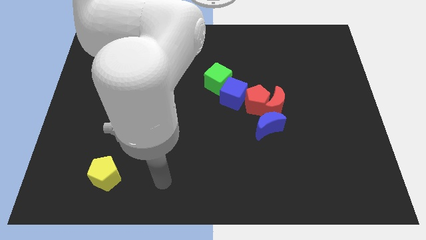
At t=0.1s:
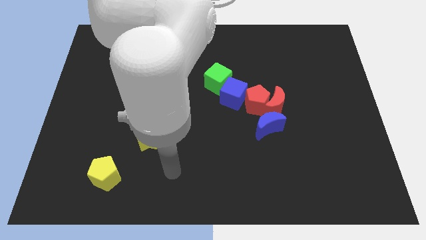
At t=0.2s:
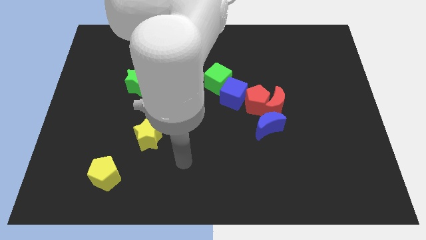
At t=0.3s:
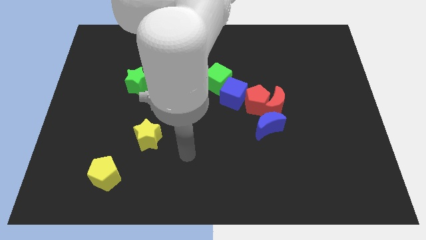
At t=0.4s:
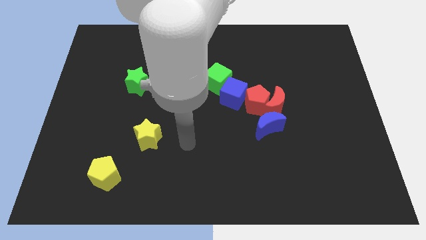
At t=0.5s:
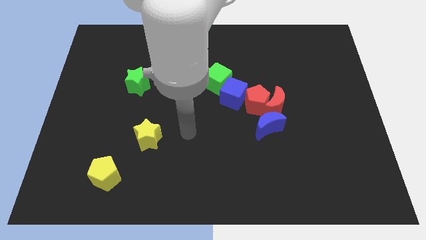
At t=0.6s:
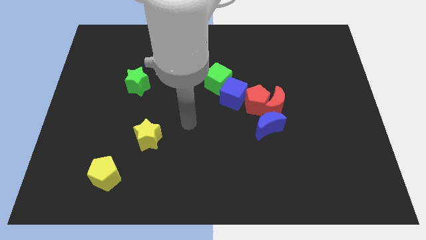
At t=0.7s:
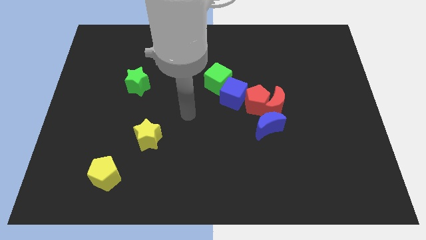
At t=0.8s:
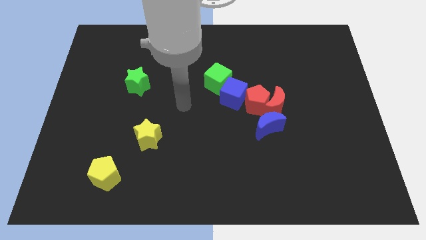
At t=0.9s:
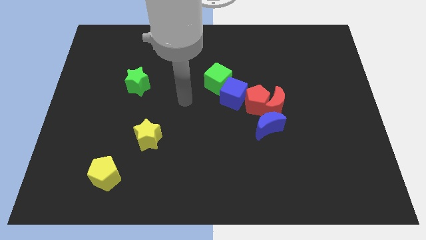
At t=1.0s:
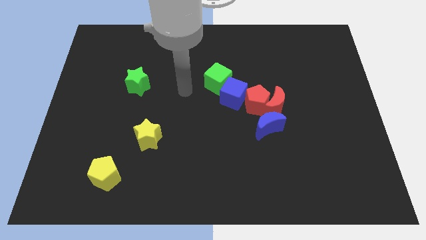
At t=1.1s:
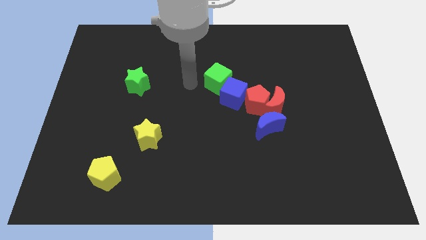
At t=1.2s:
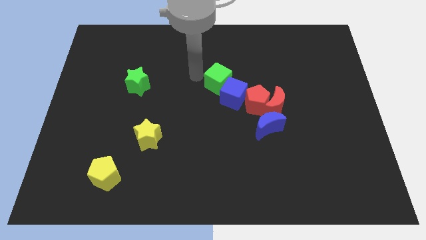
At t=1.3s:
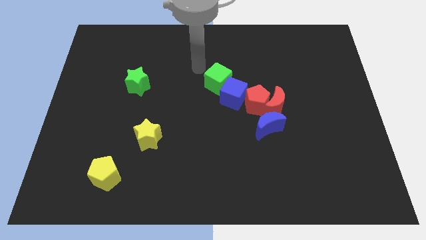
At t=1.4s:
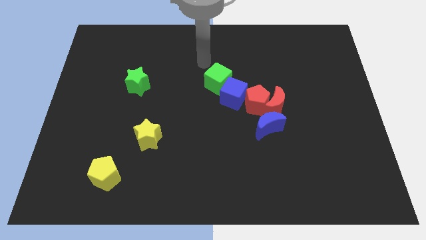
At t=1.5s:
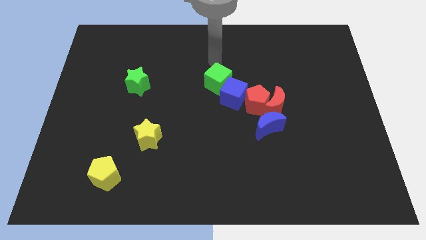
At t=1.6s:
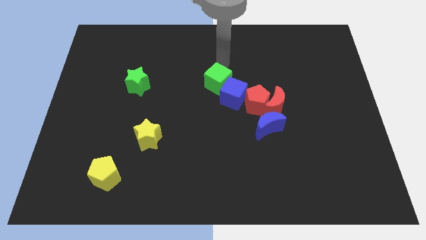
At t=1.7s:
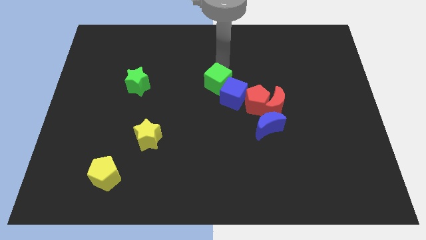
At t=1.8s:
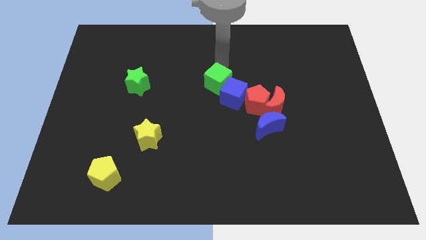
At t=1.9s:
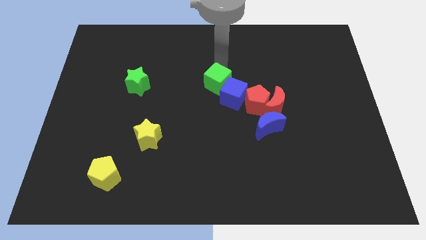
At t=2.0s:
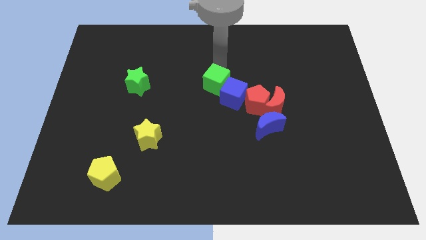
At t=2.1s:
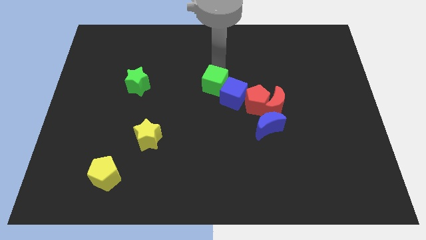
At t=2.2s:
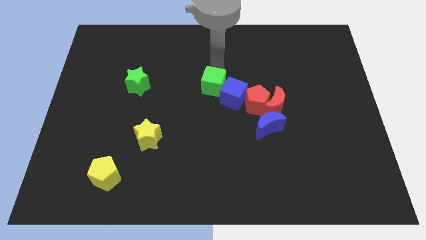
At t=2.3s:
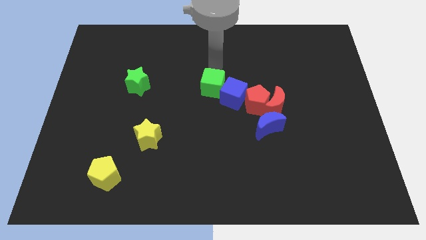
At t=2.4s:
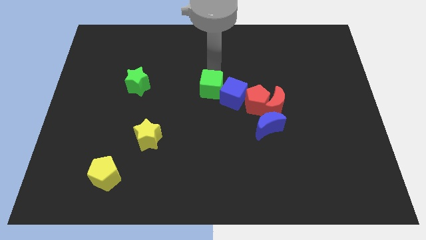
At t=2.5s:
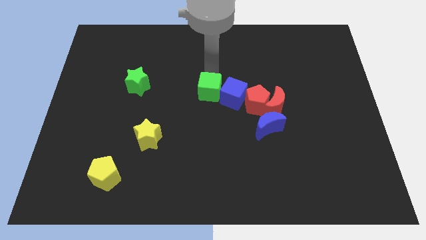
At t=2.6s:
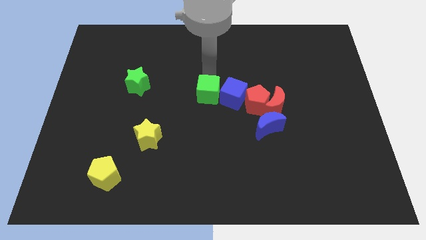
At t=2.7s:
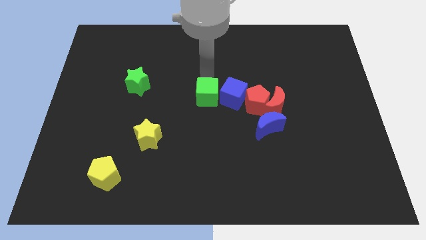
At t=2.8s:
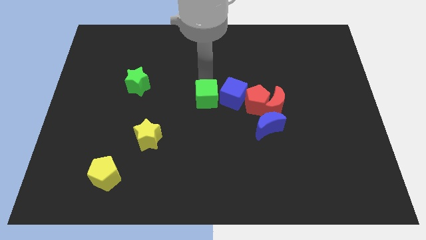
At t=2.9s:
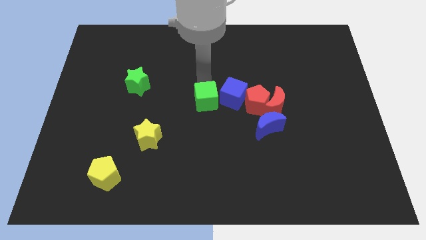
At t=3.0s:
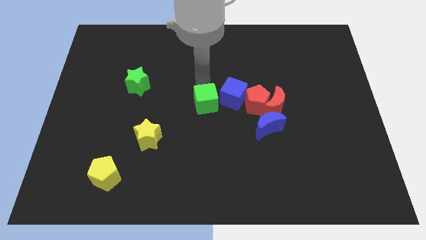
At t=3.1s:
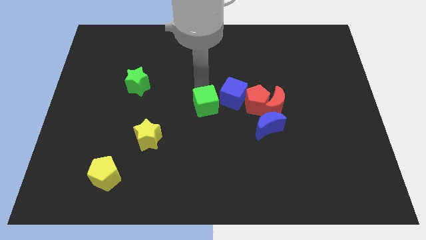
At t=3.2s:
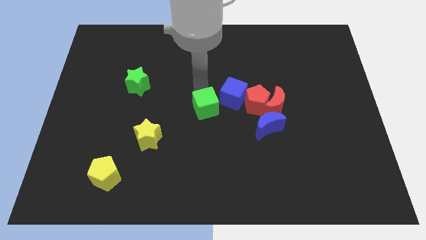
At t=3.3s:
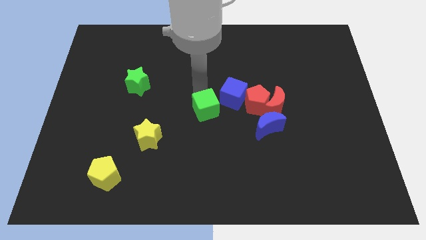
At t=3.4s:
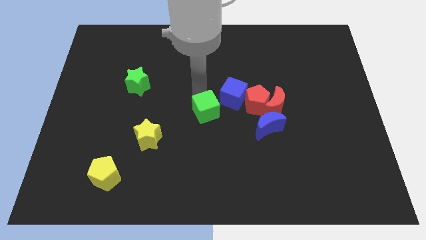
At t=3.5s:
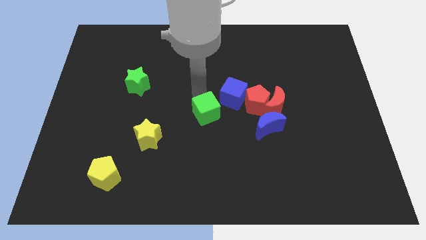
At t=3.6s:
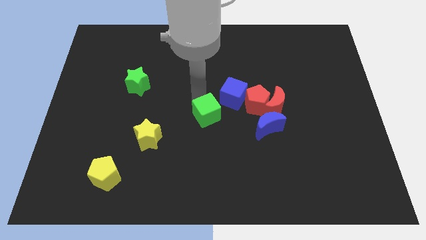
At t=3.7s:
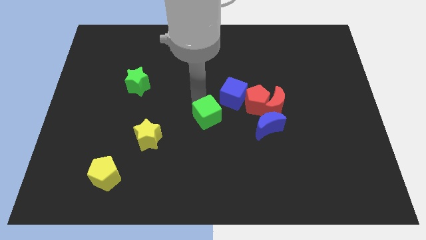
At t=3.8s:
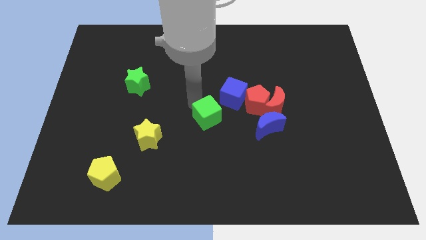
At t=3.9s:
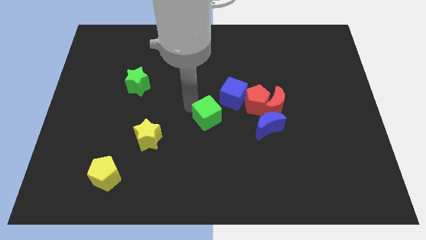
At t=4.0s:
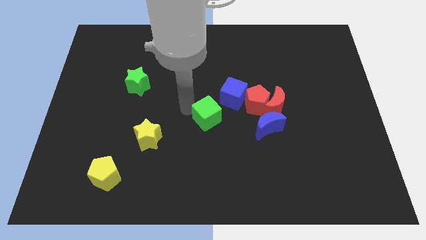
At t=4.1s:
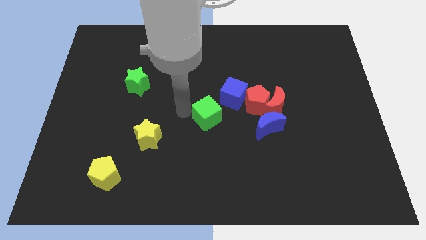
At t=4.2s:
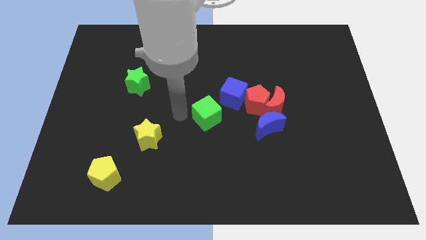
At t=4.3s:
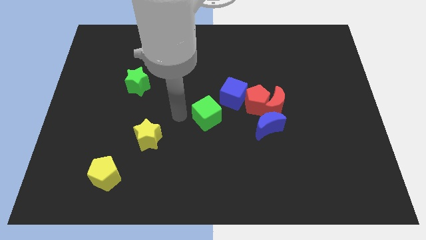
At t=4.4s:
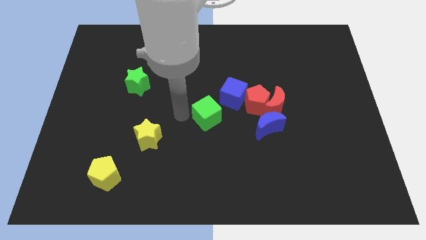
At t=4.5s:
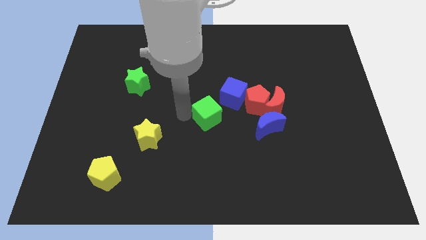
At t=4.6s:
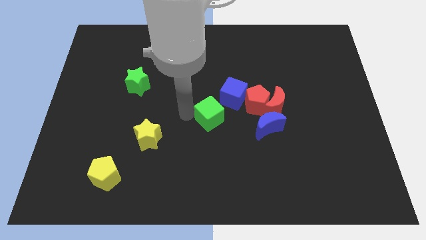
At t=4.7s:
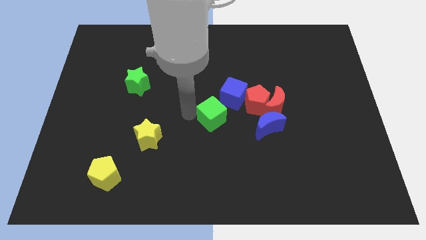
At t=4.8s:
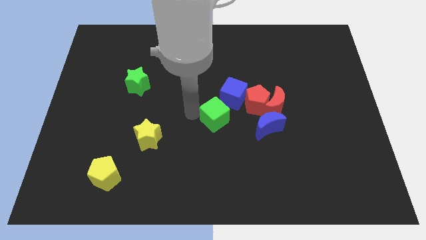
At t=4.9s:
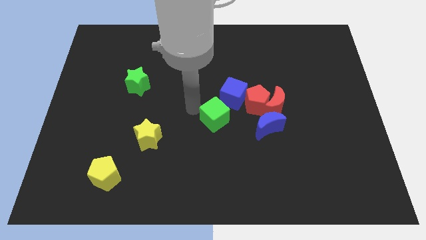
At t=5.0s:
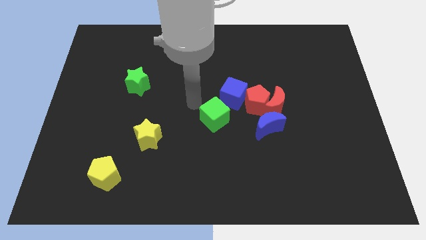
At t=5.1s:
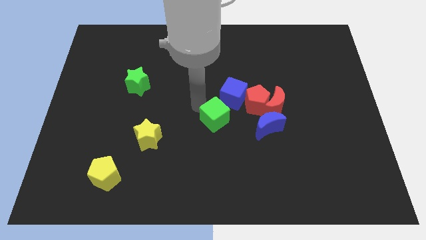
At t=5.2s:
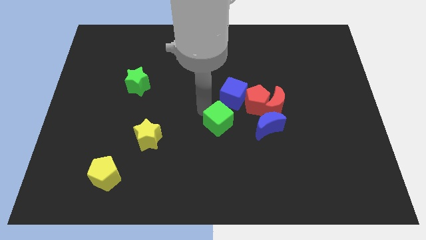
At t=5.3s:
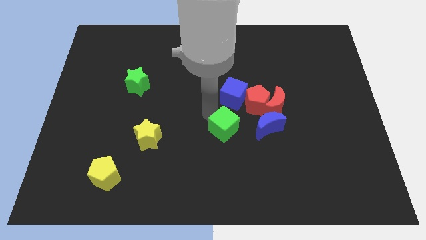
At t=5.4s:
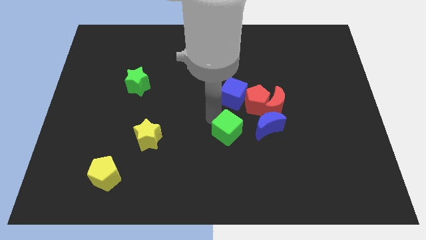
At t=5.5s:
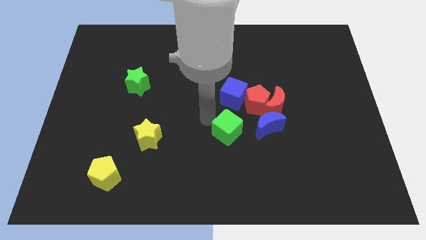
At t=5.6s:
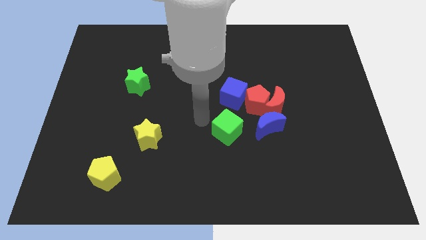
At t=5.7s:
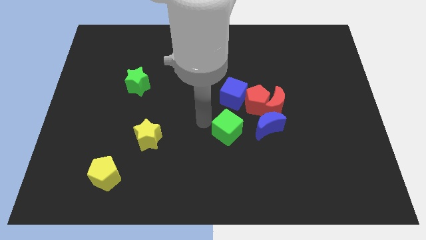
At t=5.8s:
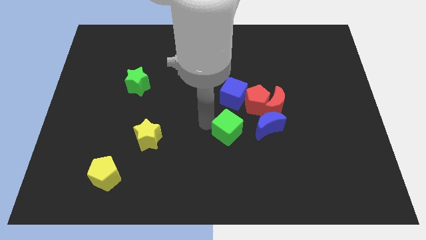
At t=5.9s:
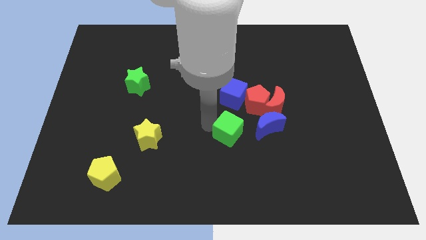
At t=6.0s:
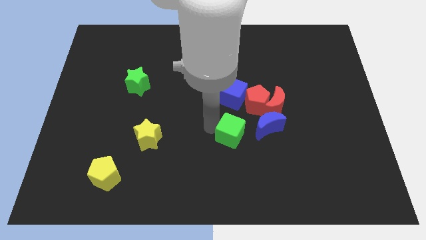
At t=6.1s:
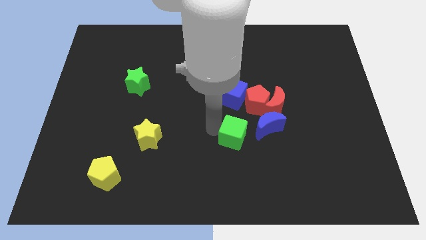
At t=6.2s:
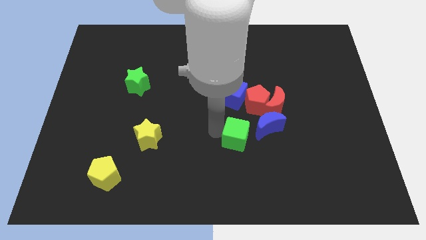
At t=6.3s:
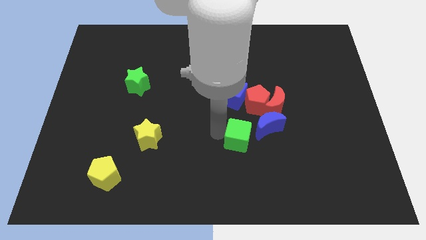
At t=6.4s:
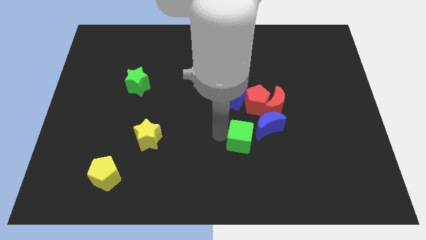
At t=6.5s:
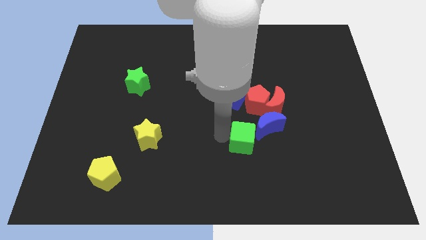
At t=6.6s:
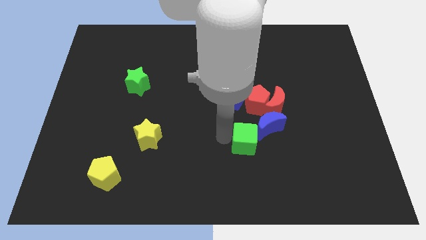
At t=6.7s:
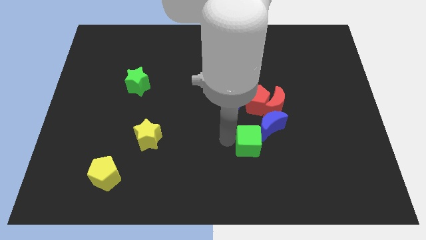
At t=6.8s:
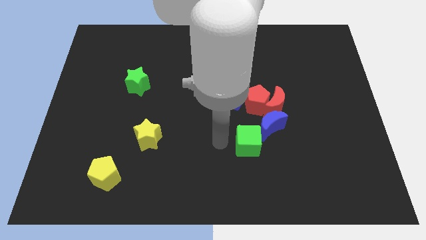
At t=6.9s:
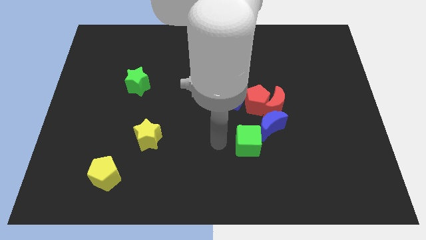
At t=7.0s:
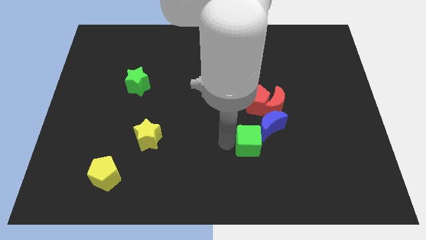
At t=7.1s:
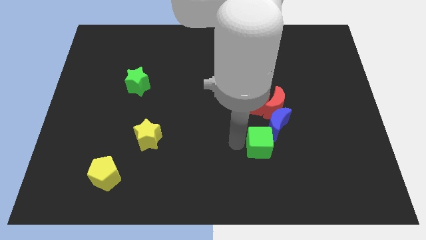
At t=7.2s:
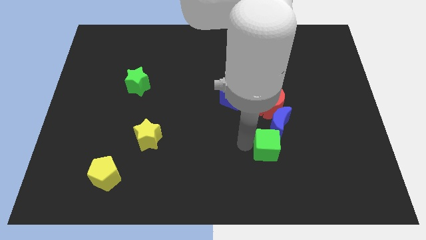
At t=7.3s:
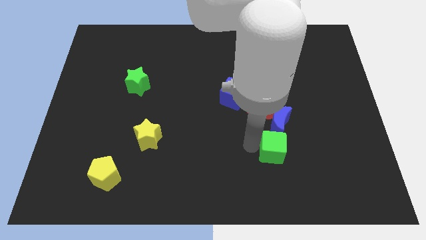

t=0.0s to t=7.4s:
slide the green cube downwards and right diagonally

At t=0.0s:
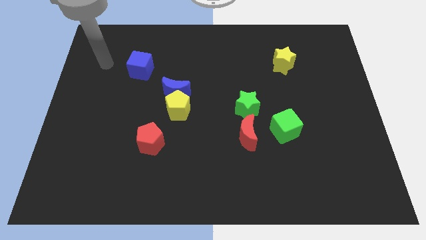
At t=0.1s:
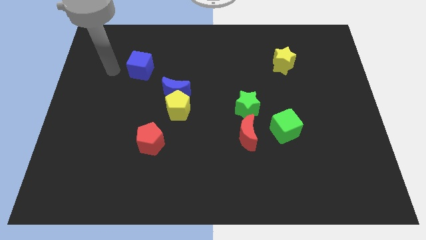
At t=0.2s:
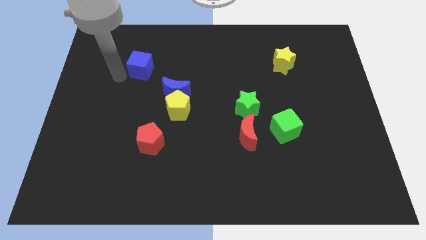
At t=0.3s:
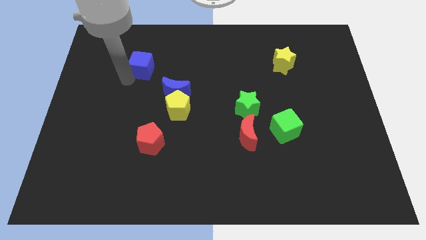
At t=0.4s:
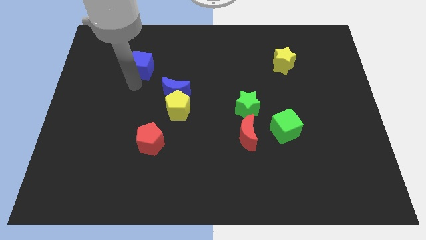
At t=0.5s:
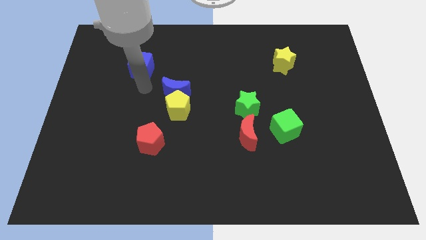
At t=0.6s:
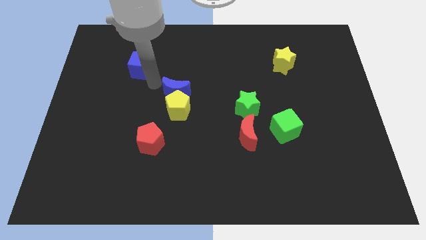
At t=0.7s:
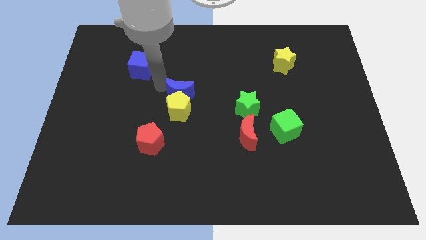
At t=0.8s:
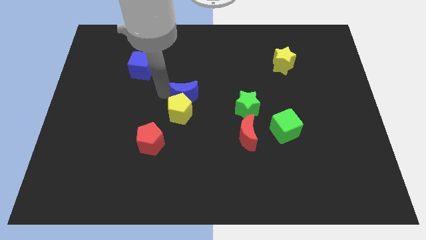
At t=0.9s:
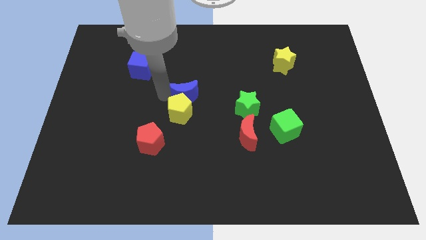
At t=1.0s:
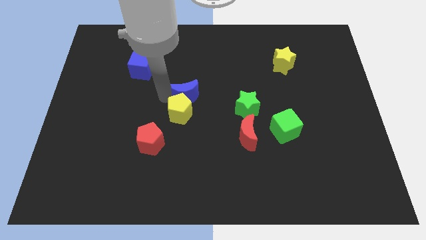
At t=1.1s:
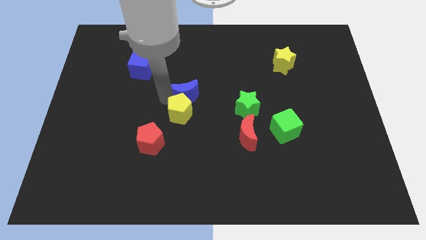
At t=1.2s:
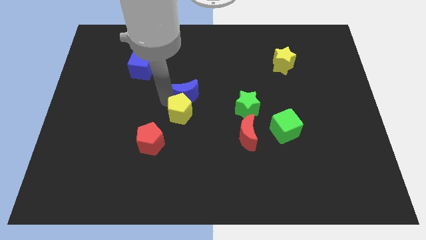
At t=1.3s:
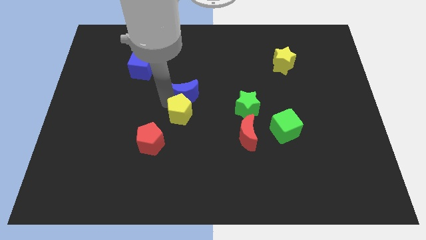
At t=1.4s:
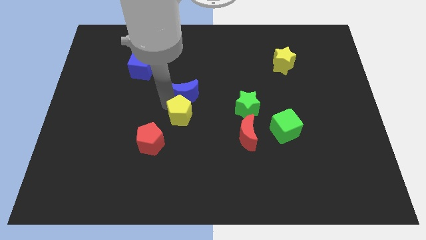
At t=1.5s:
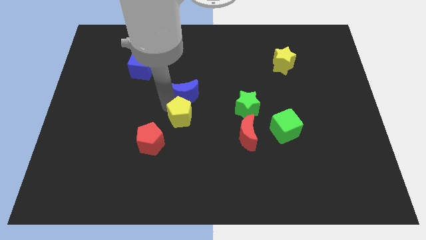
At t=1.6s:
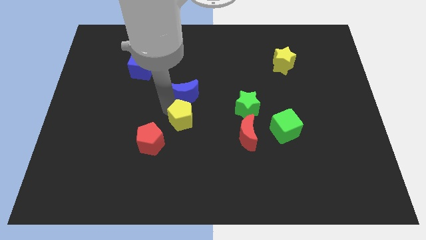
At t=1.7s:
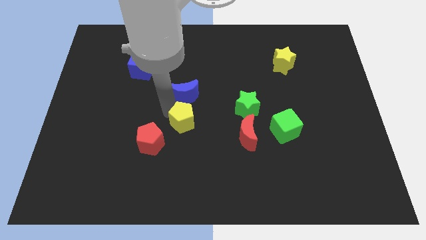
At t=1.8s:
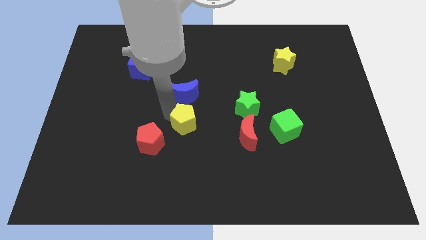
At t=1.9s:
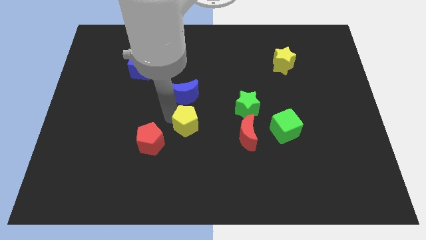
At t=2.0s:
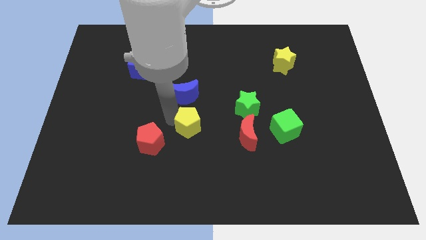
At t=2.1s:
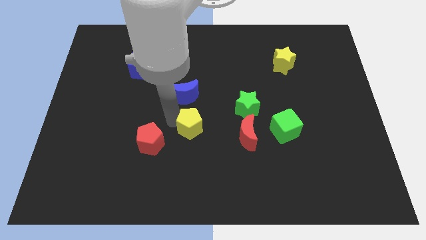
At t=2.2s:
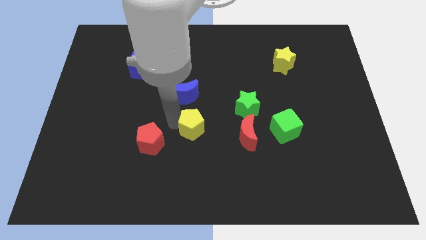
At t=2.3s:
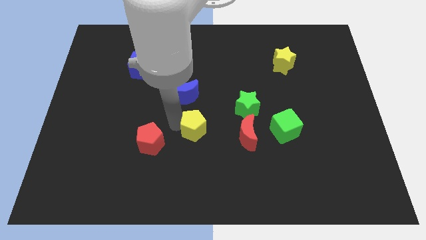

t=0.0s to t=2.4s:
move the yellow pentagon a little bit downwards and right
